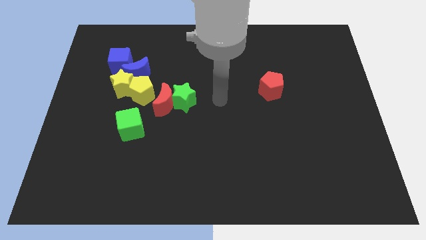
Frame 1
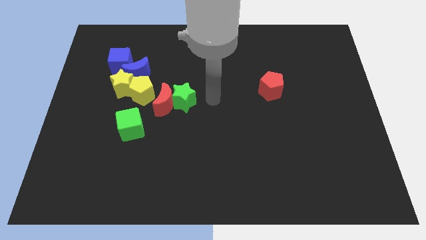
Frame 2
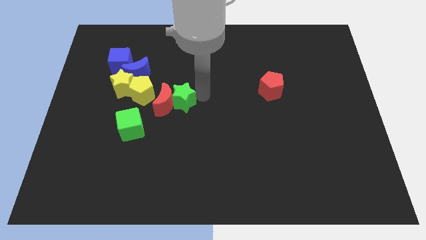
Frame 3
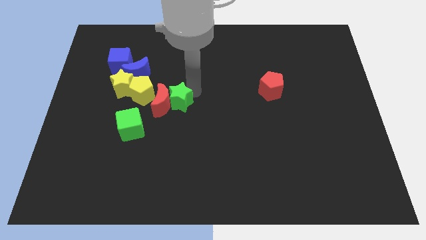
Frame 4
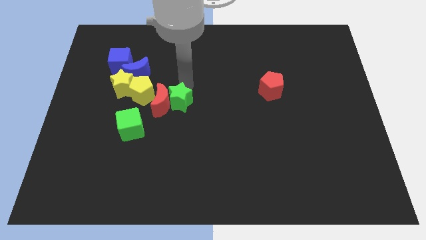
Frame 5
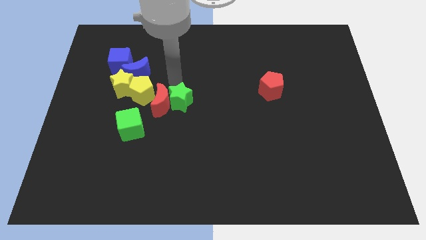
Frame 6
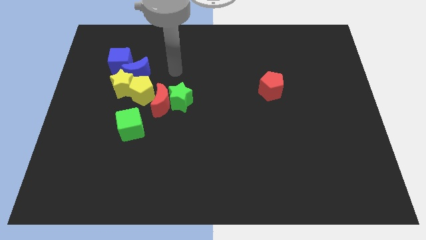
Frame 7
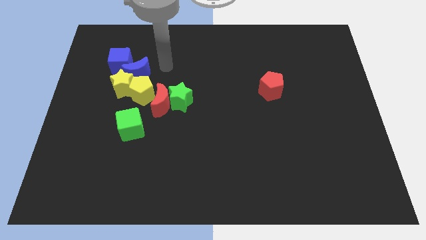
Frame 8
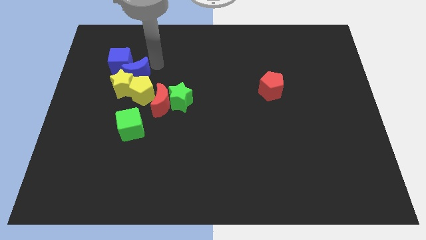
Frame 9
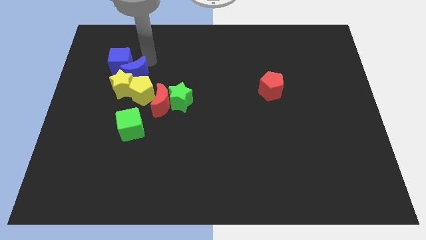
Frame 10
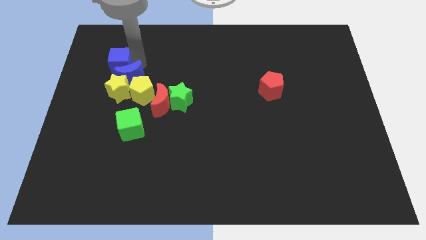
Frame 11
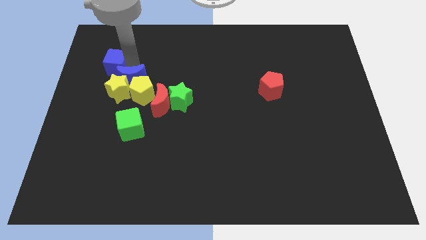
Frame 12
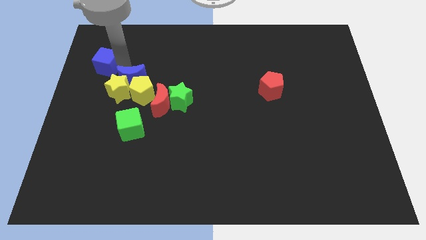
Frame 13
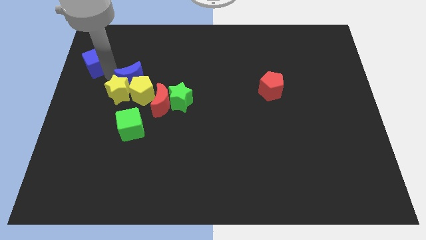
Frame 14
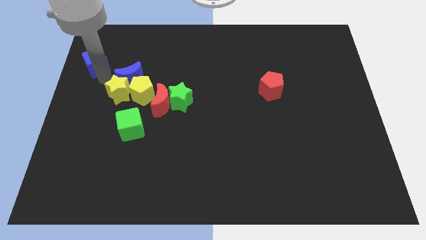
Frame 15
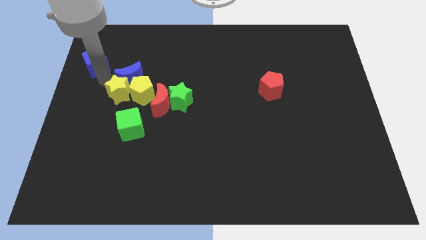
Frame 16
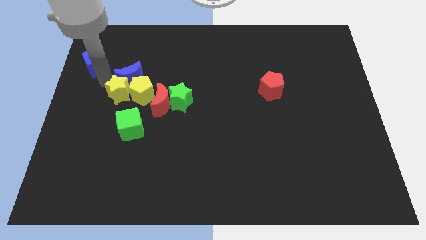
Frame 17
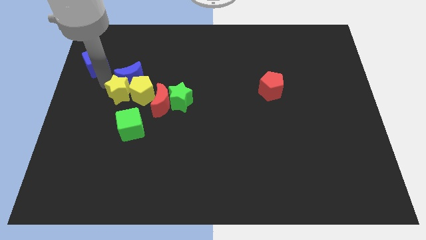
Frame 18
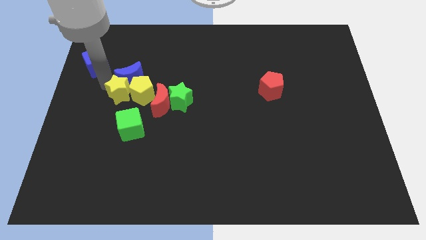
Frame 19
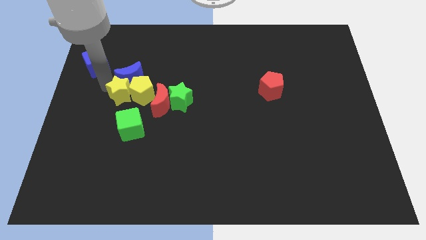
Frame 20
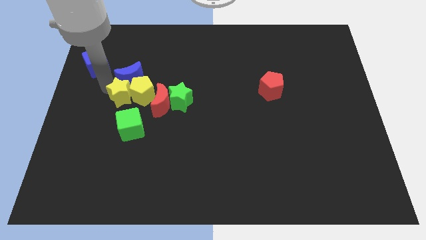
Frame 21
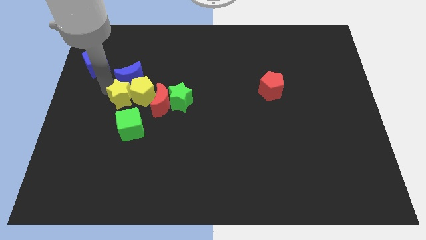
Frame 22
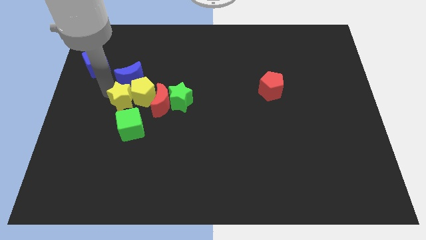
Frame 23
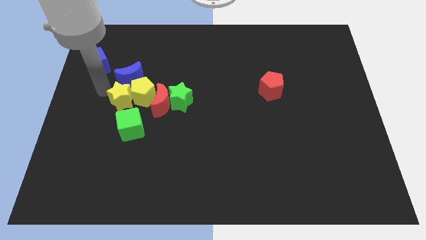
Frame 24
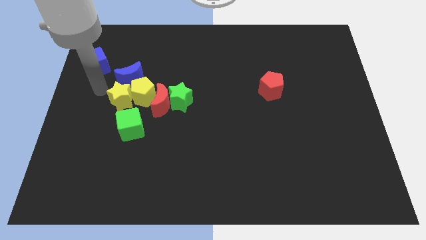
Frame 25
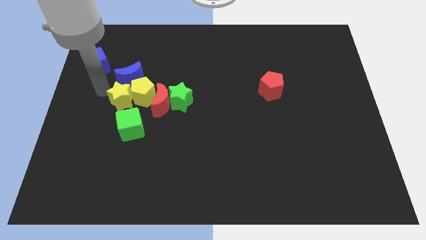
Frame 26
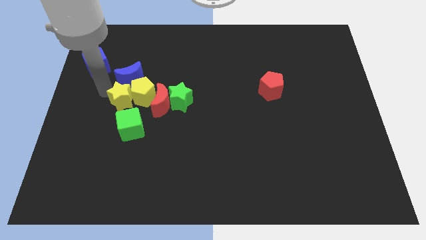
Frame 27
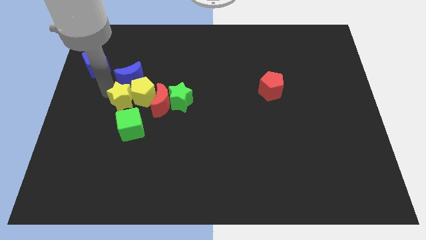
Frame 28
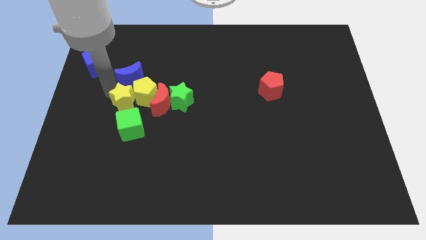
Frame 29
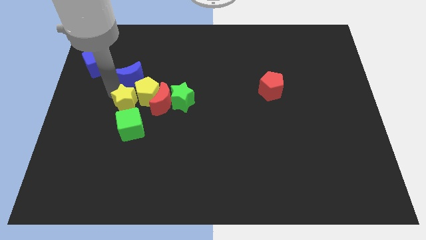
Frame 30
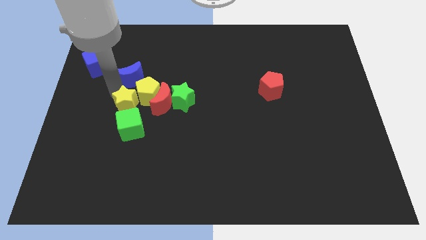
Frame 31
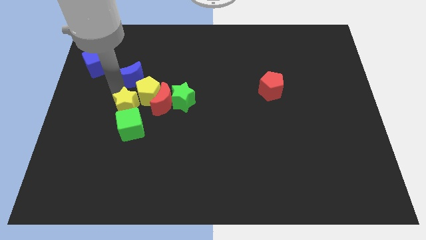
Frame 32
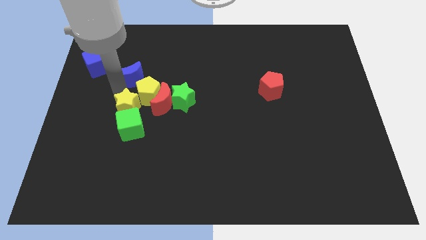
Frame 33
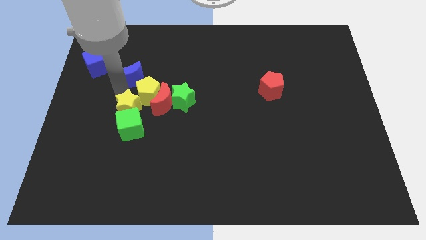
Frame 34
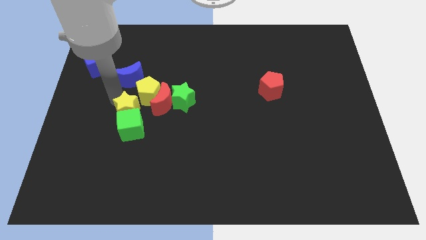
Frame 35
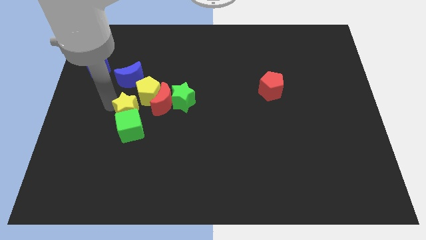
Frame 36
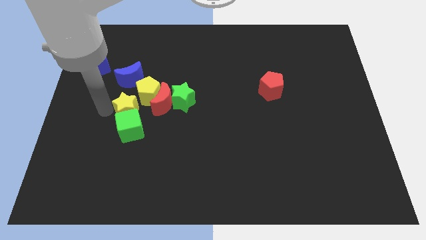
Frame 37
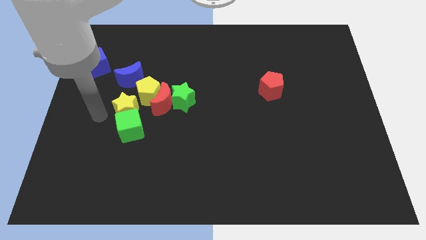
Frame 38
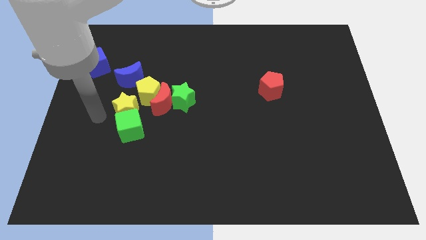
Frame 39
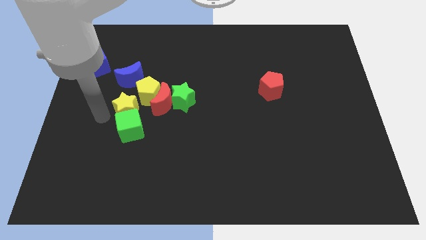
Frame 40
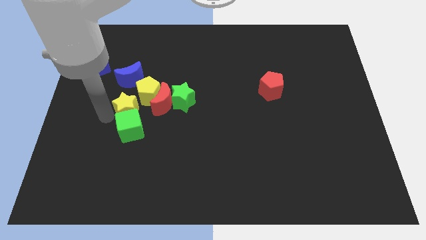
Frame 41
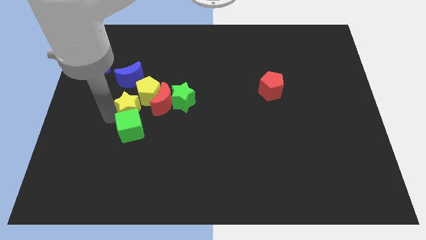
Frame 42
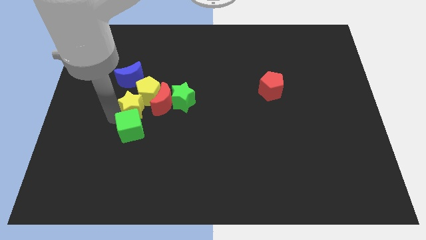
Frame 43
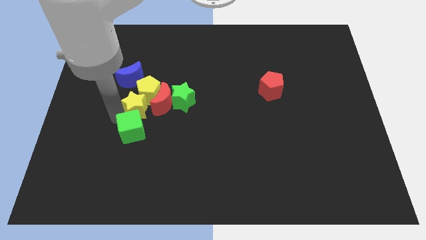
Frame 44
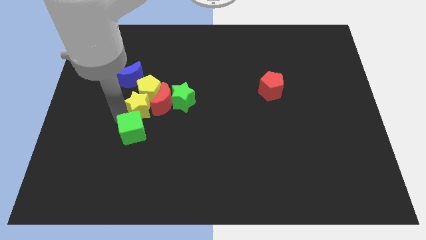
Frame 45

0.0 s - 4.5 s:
move the yellow star to the red moon

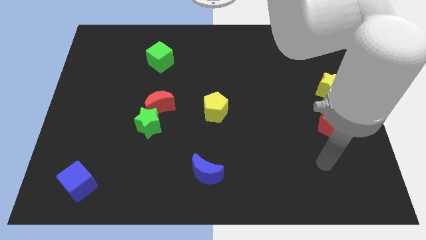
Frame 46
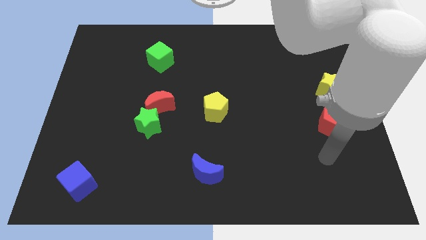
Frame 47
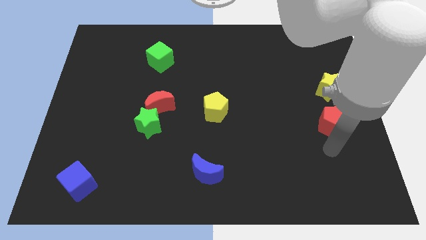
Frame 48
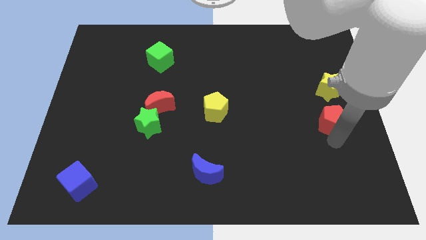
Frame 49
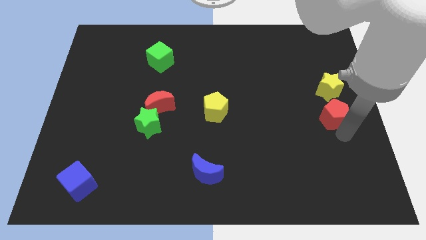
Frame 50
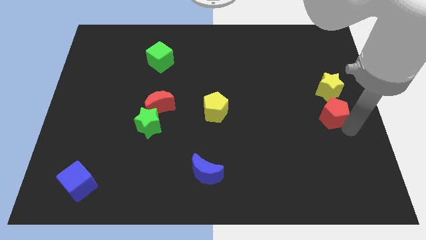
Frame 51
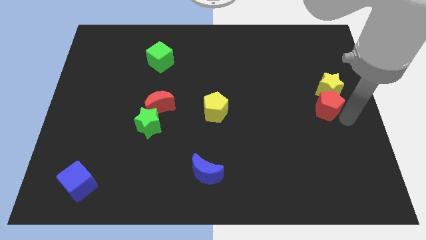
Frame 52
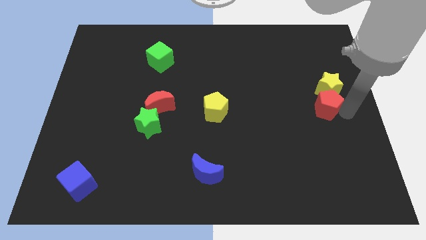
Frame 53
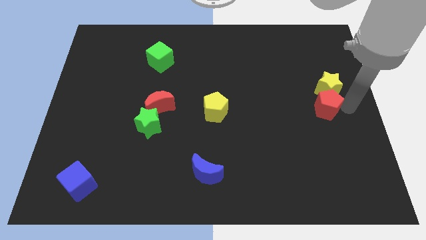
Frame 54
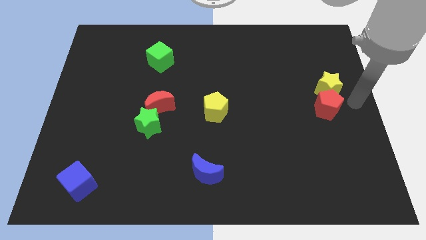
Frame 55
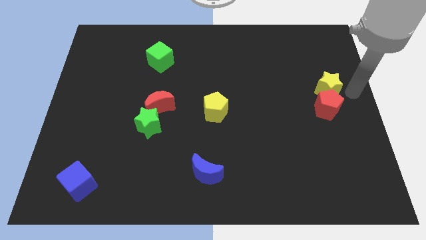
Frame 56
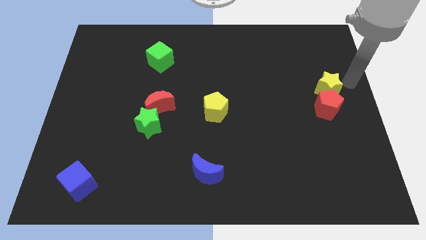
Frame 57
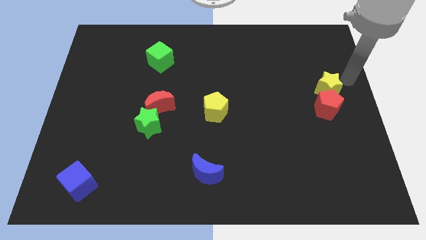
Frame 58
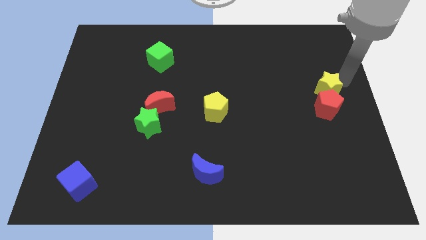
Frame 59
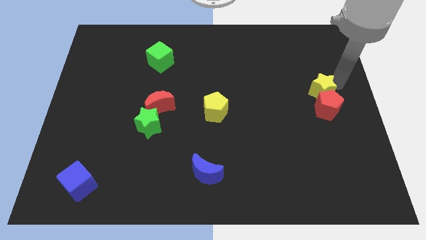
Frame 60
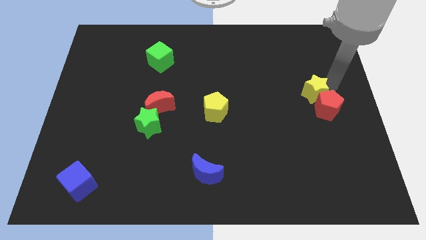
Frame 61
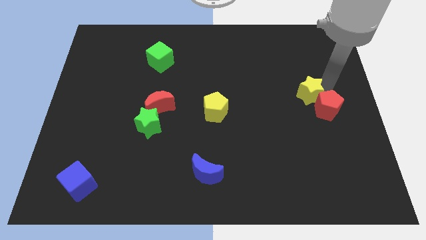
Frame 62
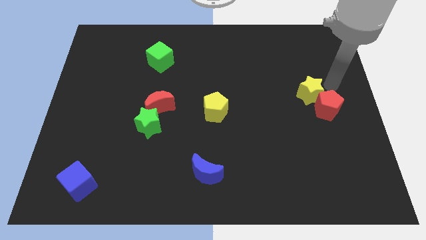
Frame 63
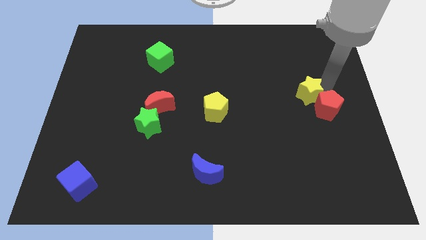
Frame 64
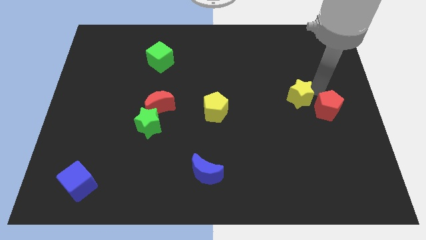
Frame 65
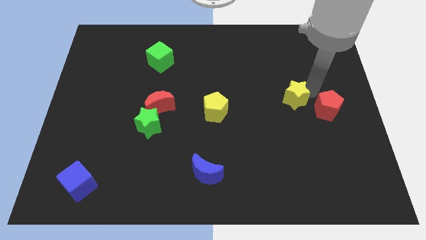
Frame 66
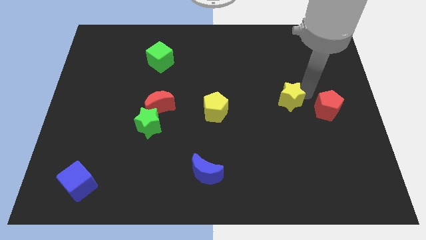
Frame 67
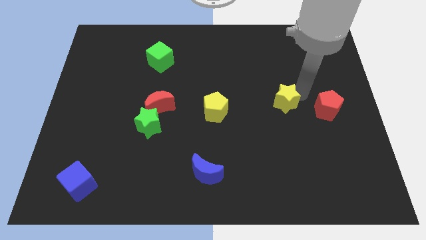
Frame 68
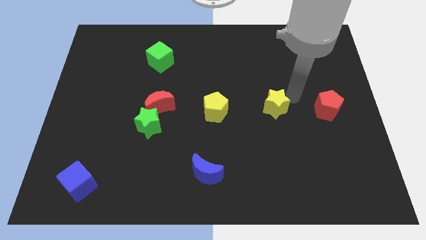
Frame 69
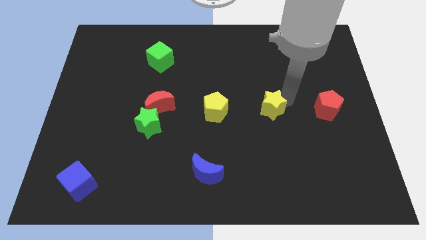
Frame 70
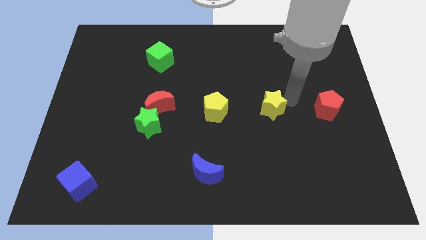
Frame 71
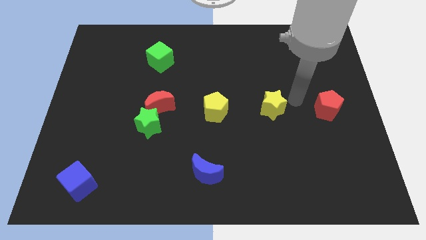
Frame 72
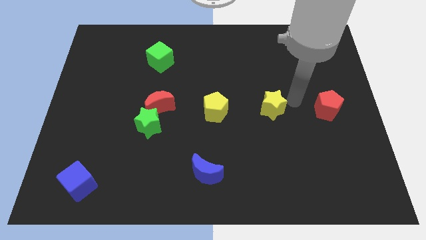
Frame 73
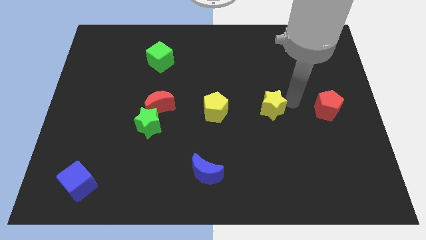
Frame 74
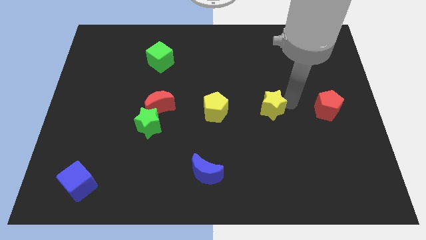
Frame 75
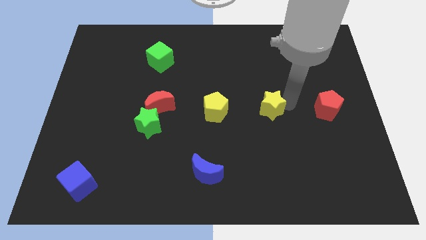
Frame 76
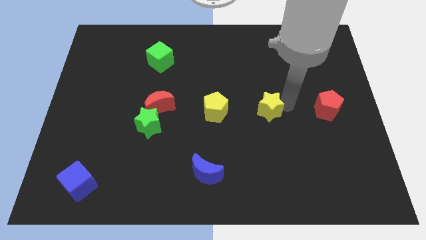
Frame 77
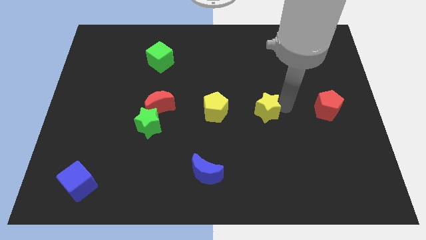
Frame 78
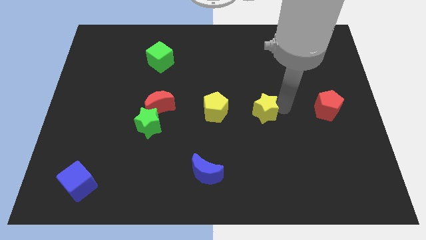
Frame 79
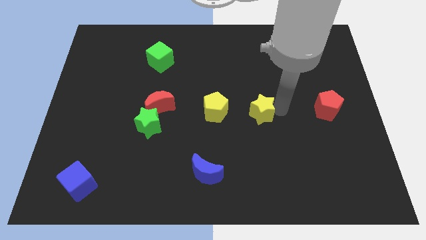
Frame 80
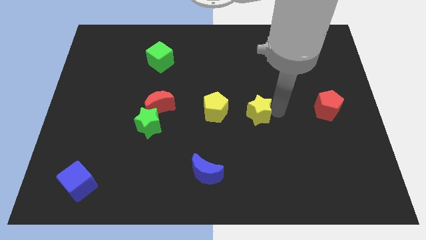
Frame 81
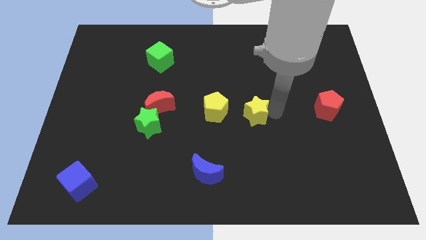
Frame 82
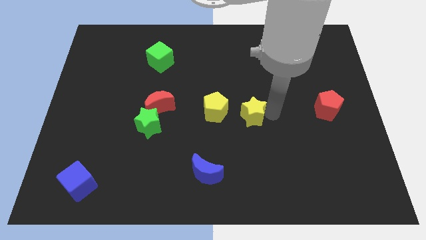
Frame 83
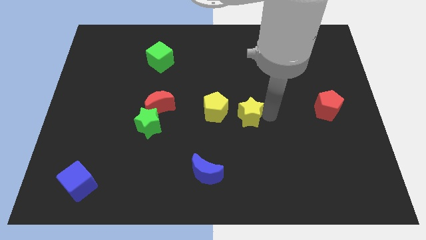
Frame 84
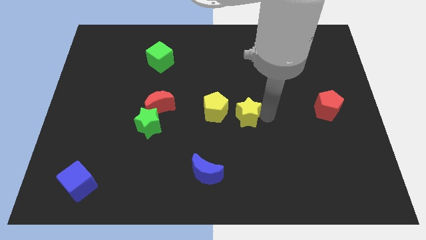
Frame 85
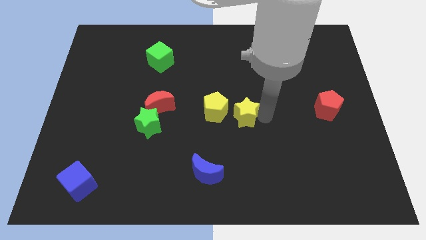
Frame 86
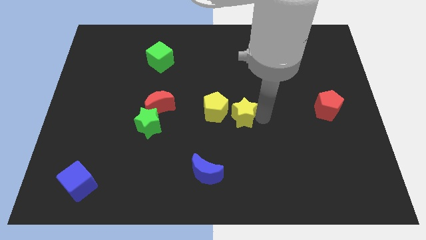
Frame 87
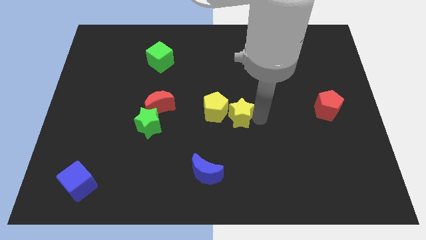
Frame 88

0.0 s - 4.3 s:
slide the yellow star close to the yellow pentagon
